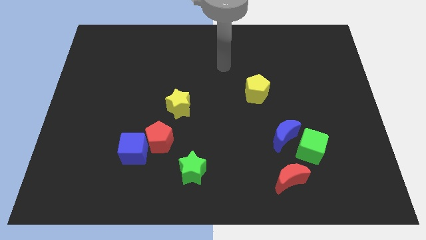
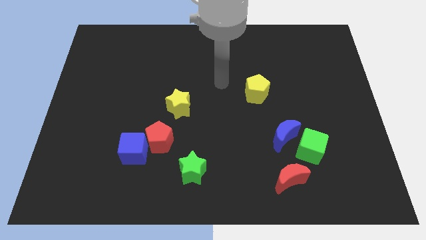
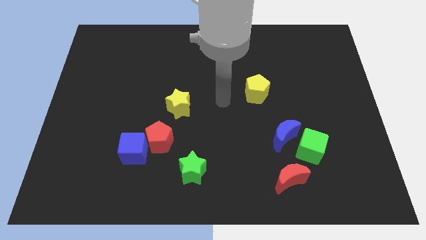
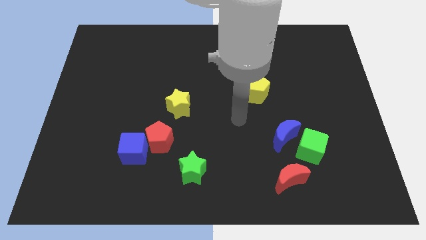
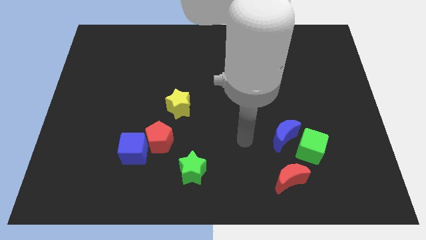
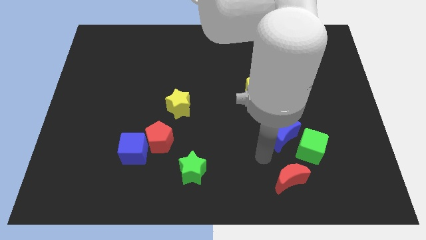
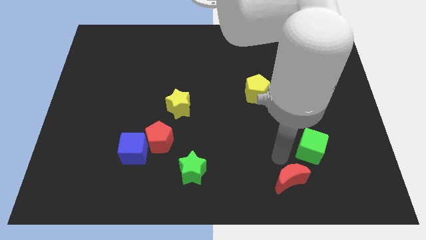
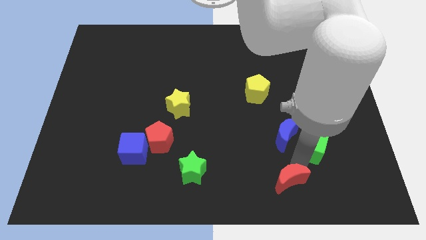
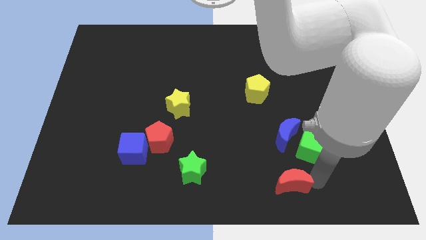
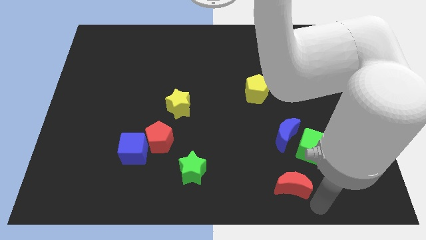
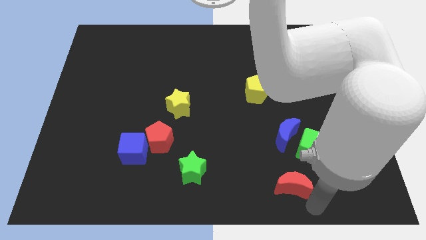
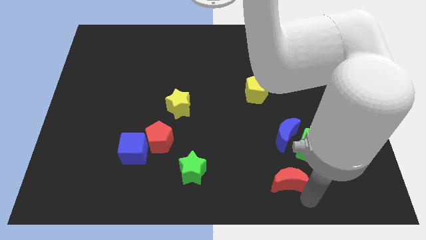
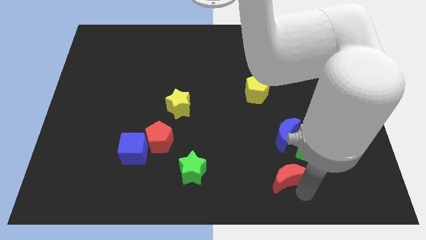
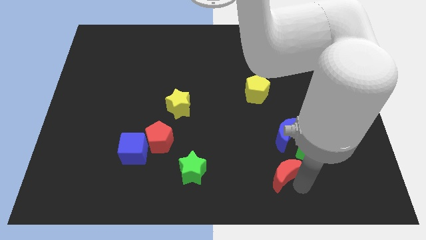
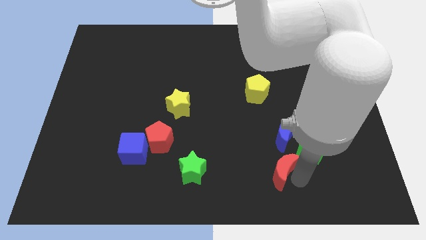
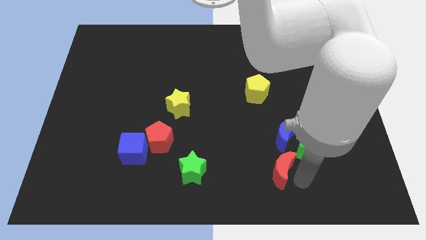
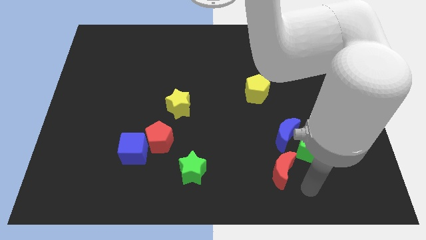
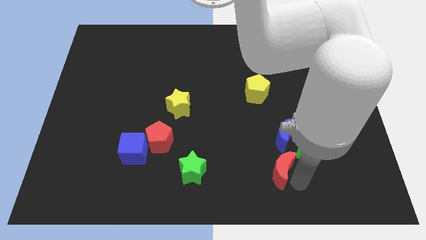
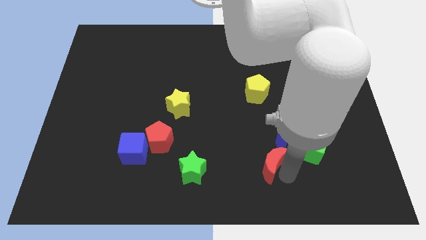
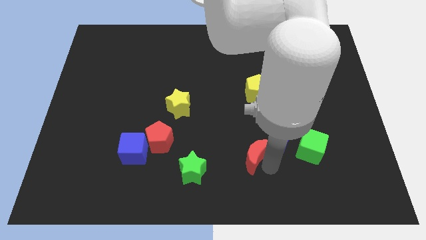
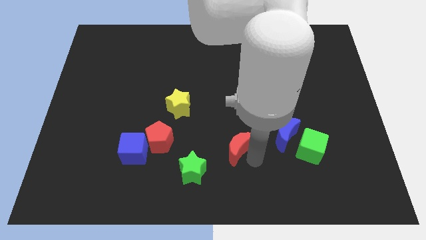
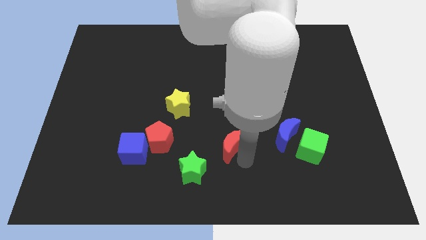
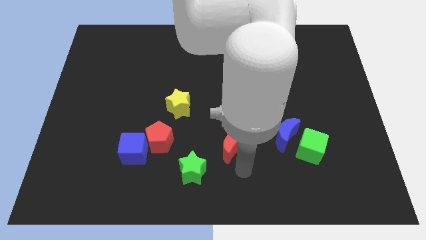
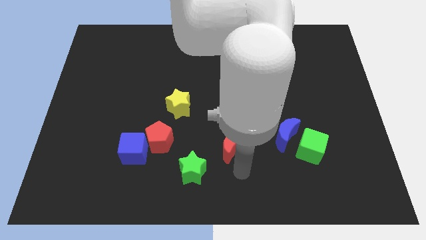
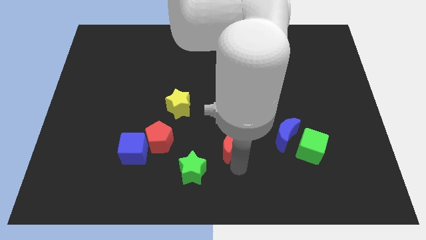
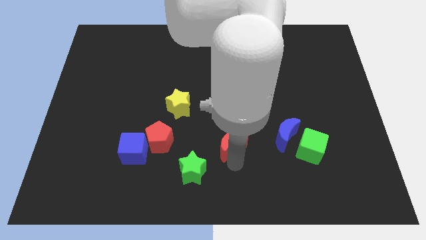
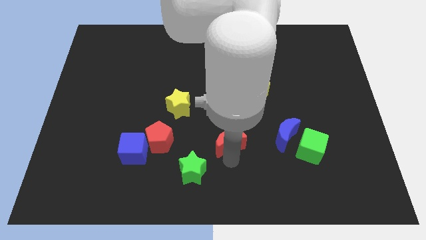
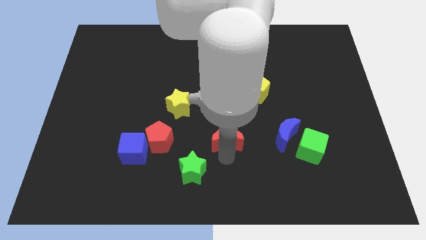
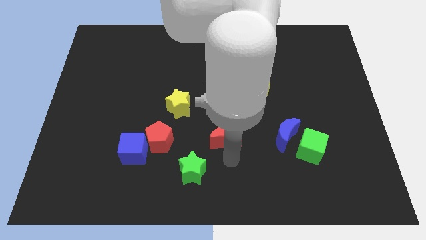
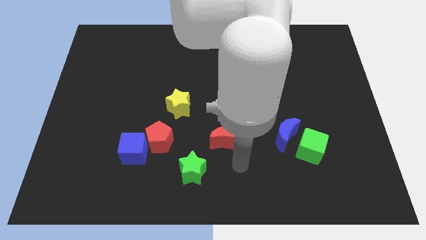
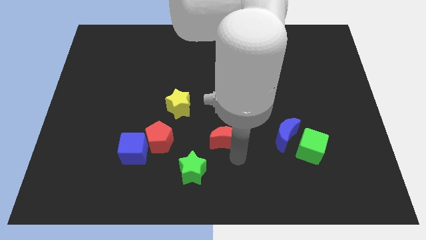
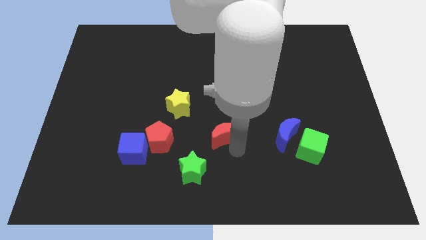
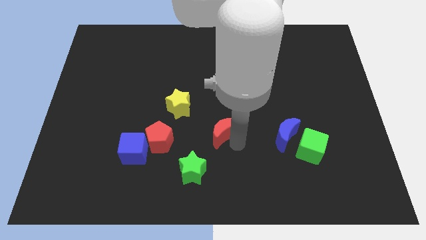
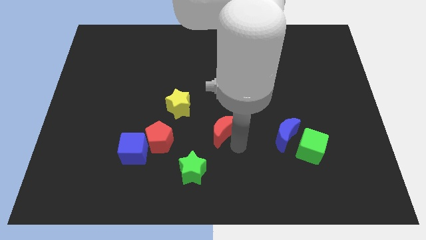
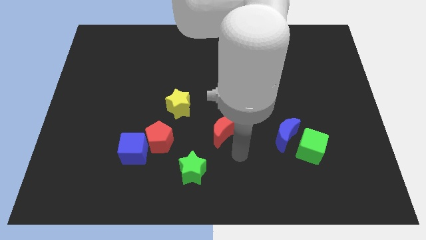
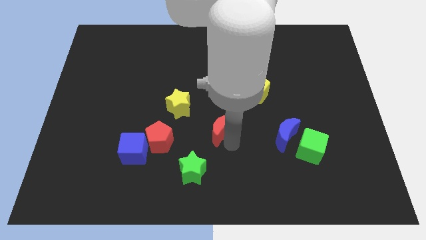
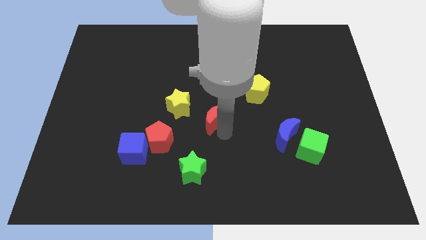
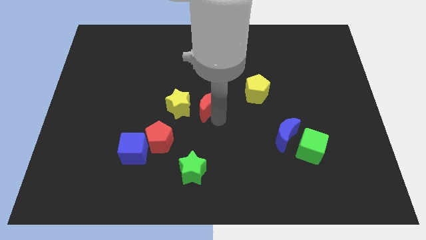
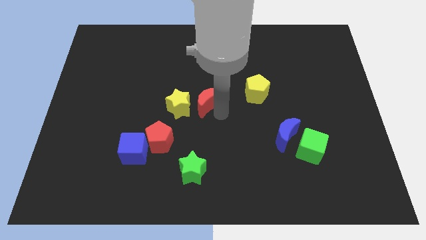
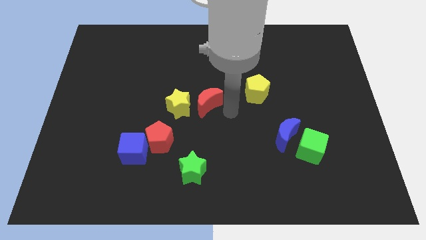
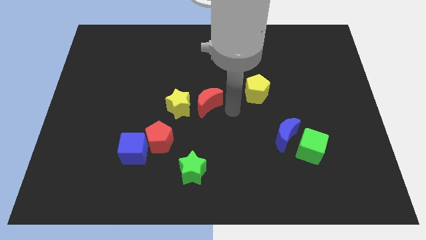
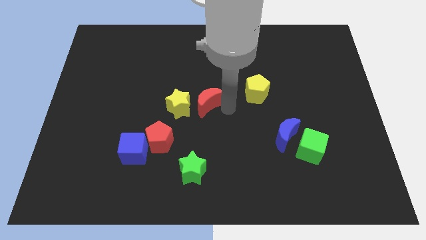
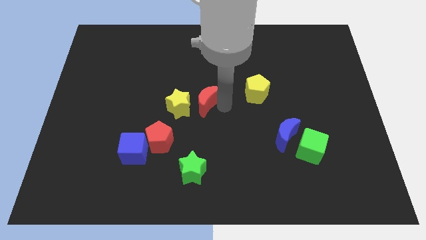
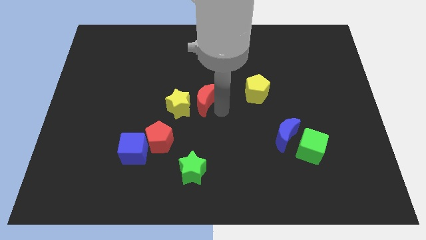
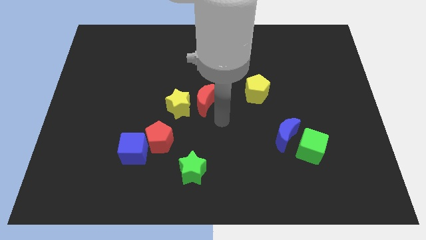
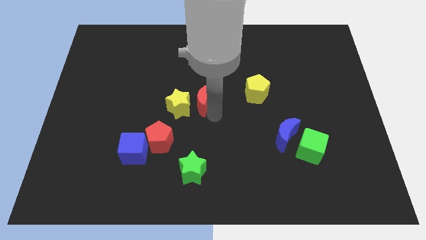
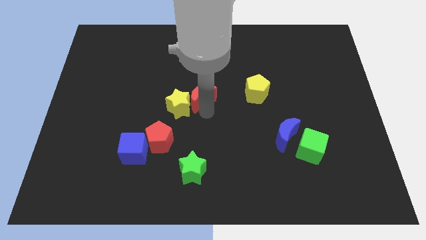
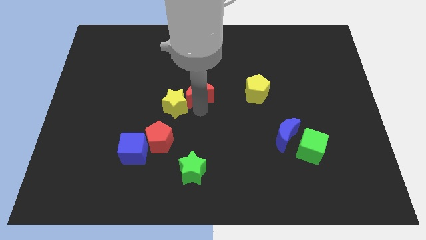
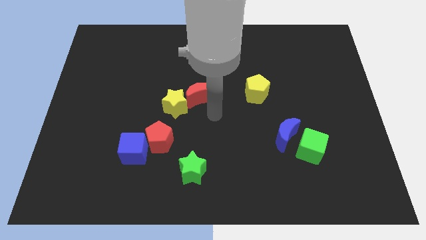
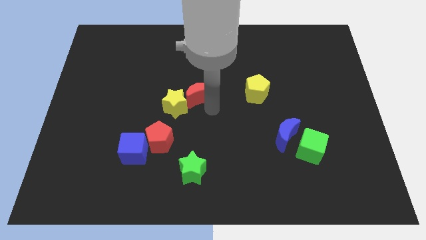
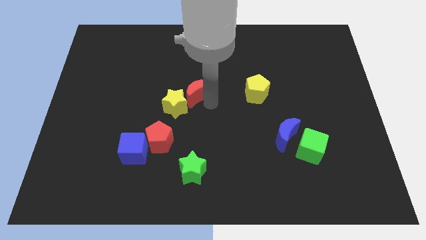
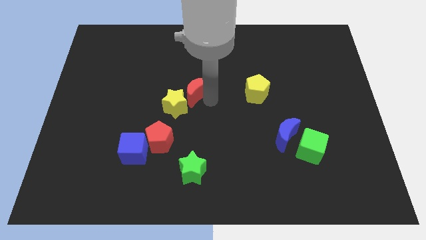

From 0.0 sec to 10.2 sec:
move the red moon above the yellow star

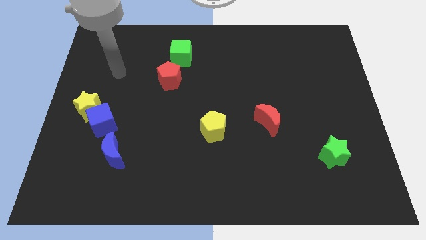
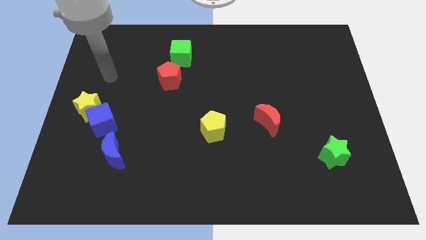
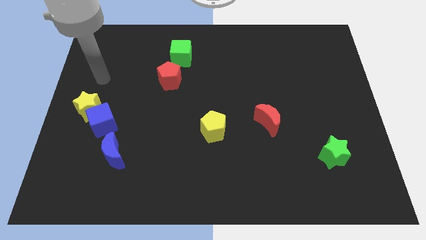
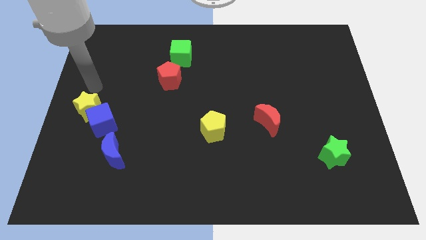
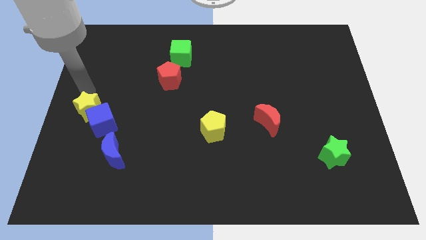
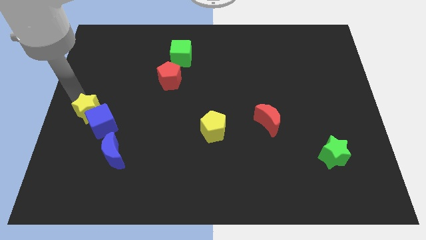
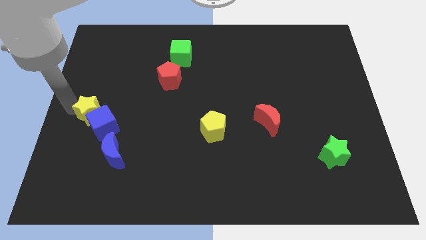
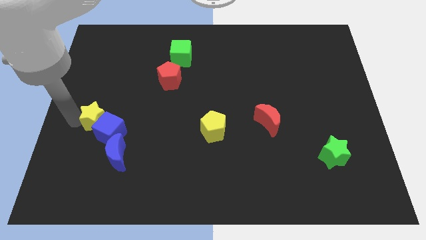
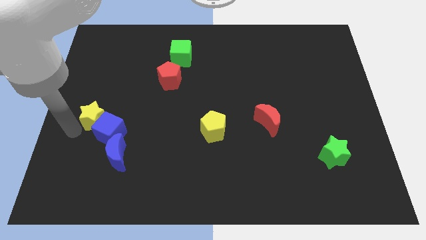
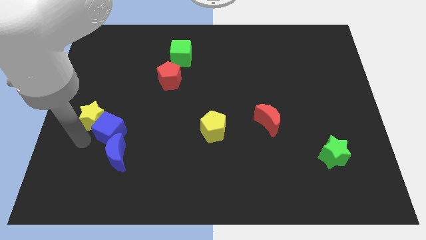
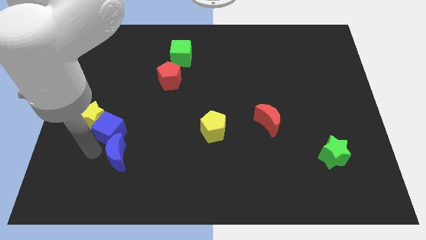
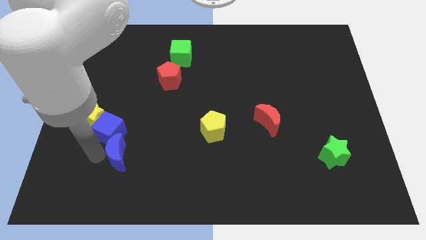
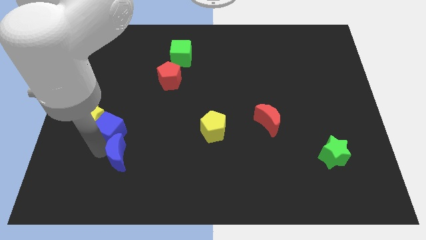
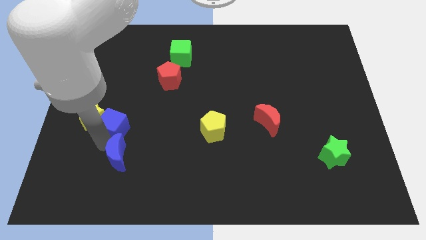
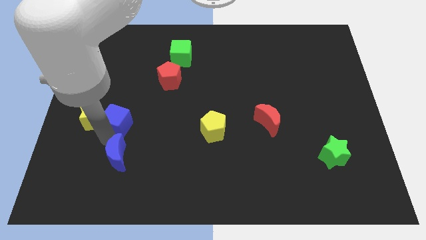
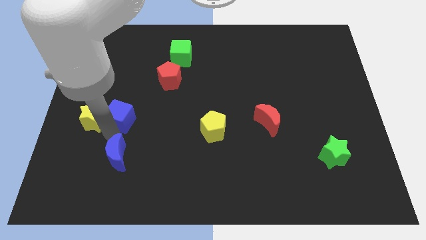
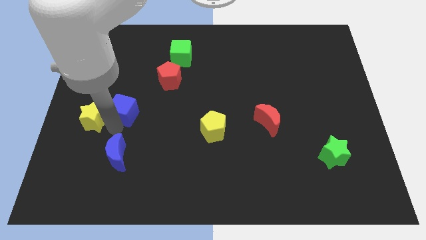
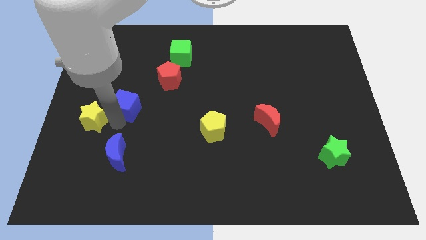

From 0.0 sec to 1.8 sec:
push the blue cube to the bottom left side of the red pentagon
